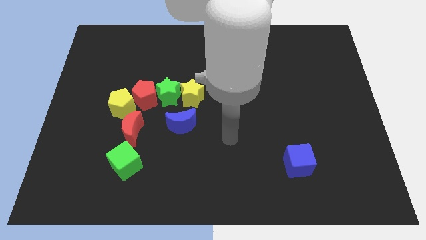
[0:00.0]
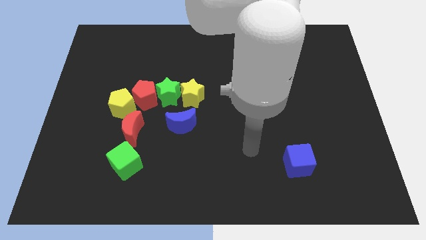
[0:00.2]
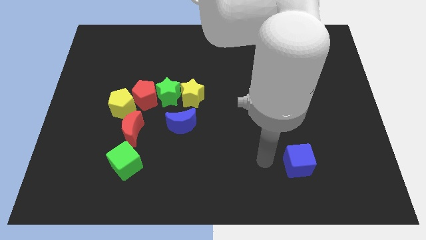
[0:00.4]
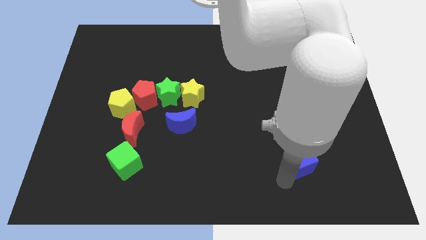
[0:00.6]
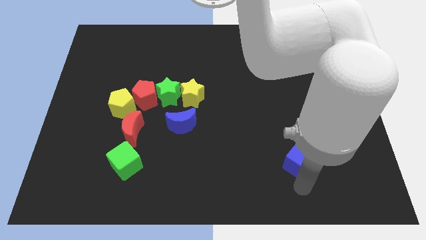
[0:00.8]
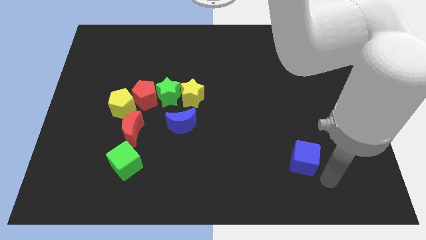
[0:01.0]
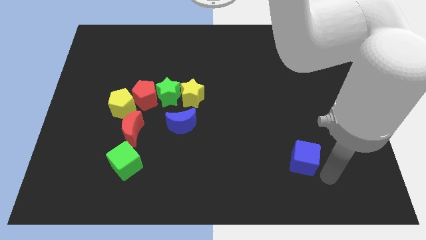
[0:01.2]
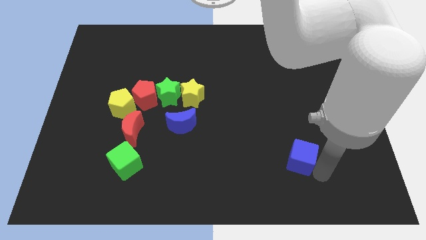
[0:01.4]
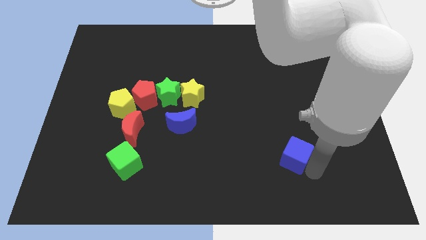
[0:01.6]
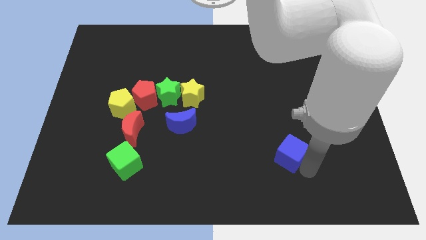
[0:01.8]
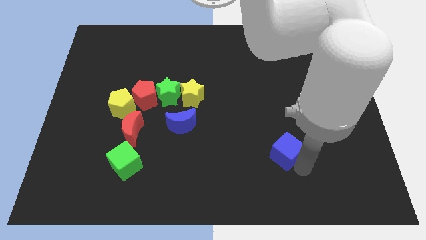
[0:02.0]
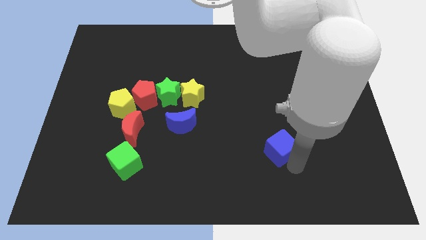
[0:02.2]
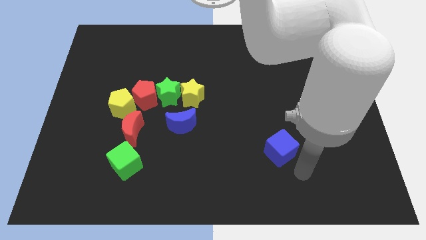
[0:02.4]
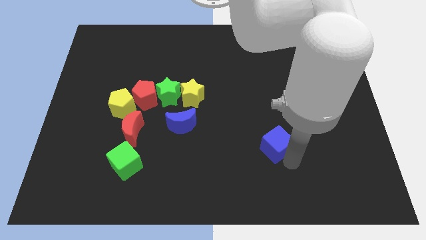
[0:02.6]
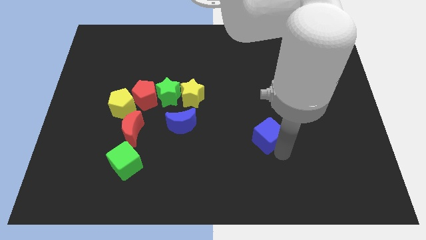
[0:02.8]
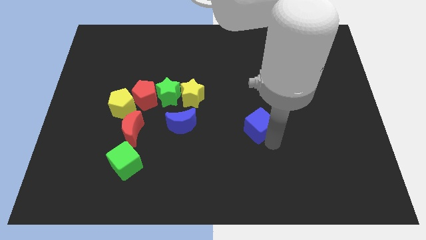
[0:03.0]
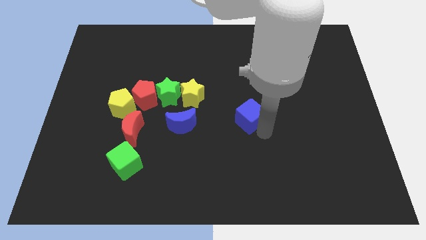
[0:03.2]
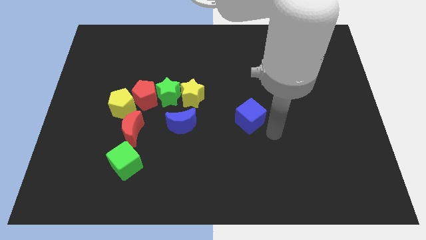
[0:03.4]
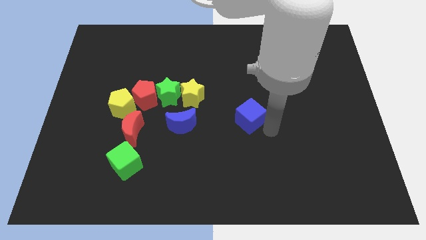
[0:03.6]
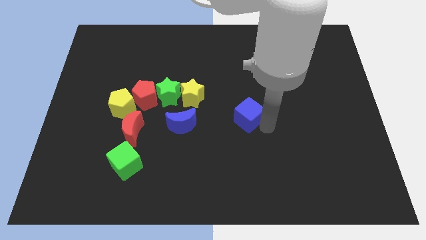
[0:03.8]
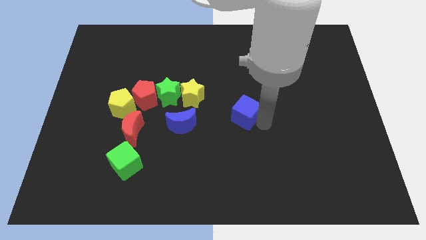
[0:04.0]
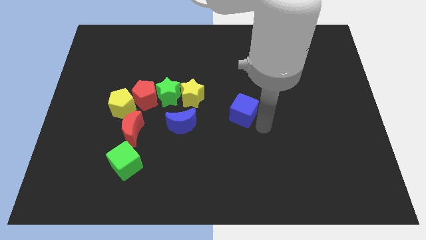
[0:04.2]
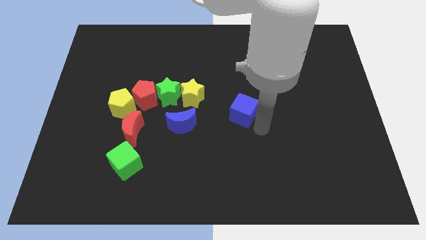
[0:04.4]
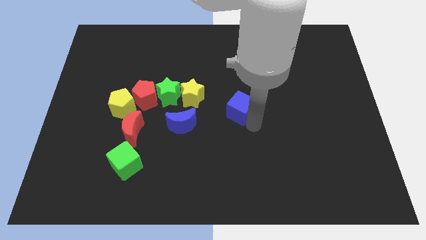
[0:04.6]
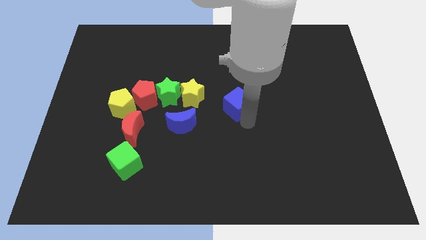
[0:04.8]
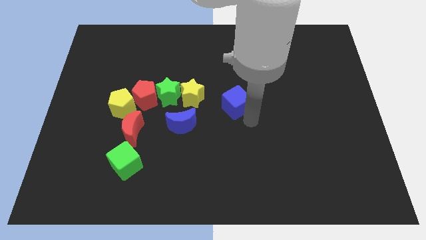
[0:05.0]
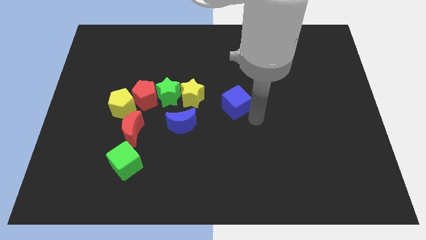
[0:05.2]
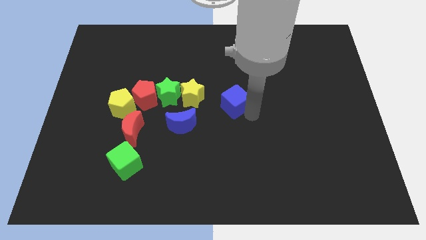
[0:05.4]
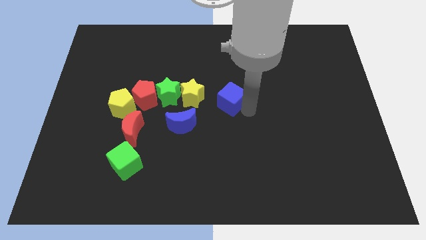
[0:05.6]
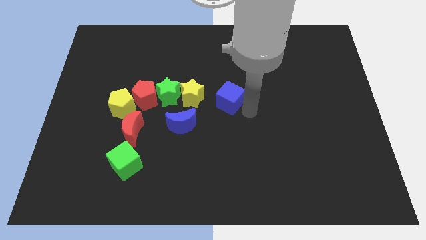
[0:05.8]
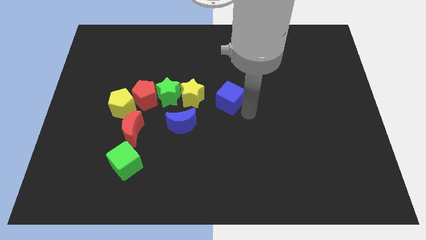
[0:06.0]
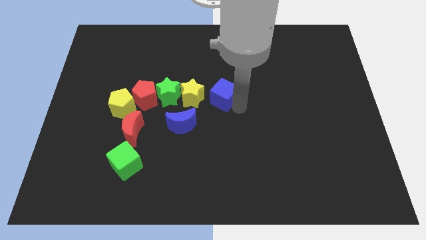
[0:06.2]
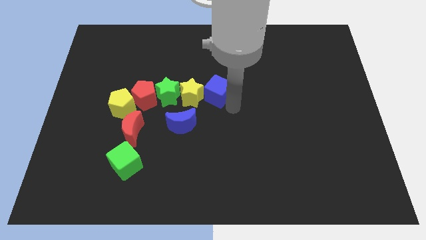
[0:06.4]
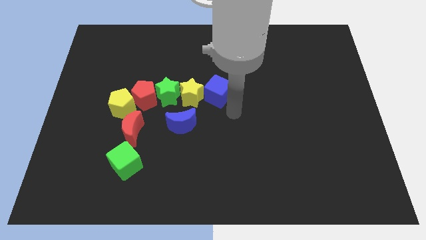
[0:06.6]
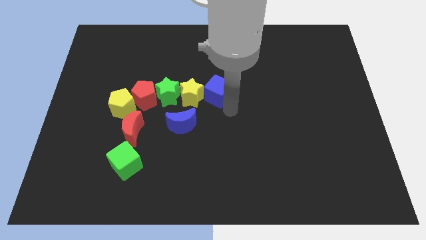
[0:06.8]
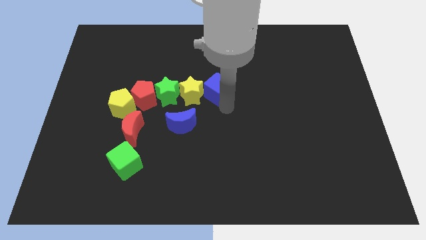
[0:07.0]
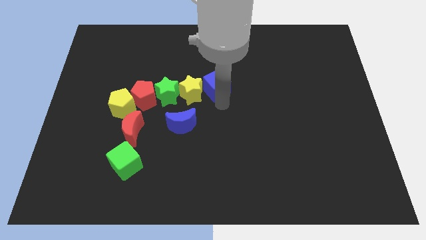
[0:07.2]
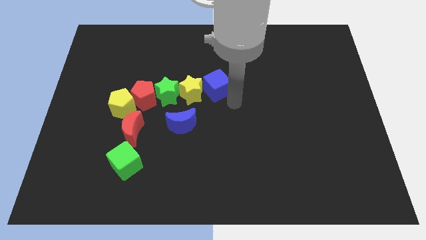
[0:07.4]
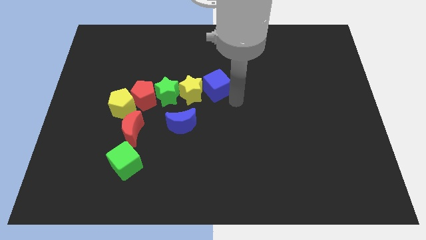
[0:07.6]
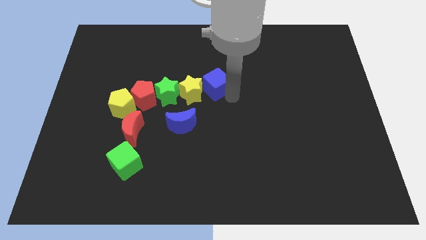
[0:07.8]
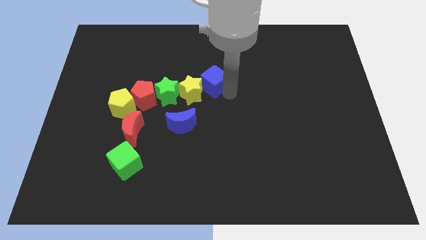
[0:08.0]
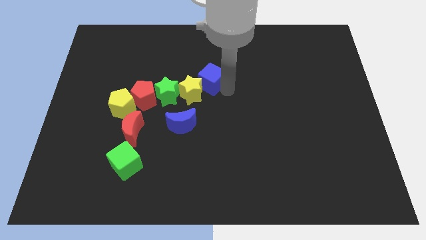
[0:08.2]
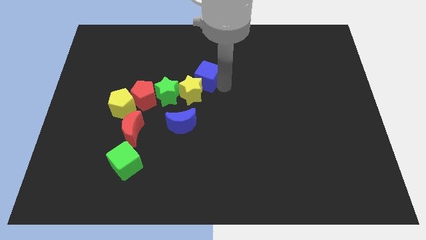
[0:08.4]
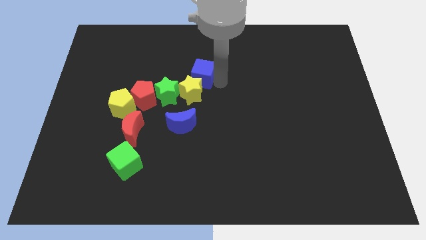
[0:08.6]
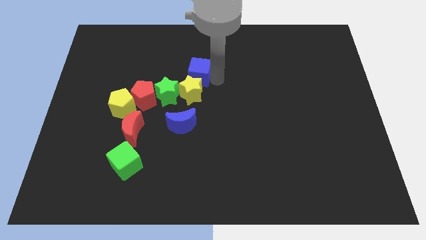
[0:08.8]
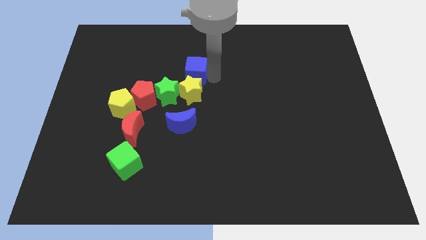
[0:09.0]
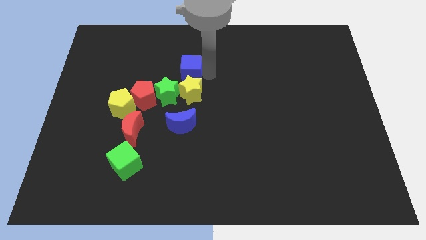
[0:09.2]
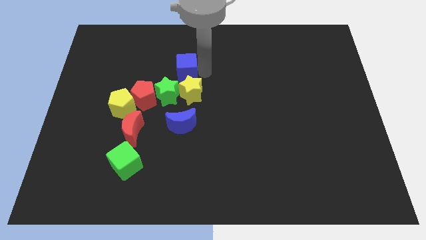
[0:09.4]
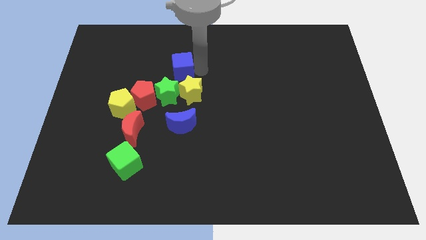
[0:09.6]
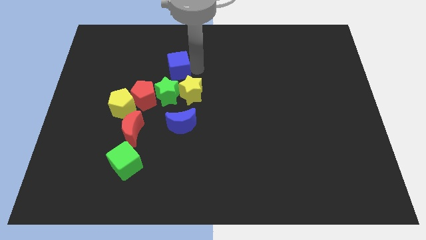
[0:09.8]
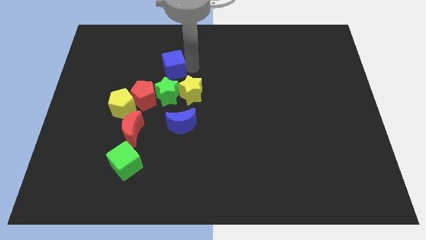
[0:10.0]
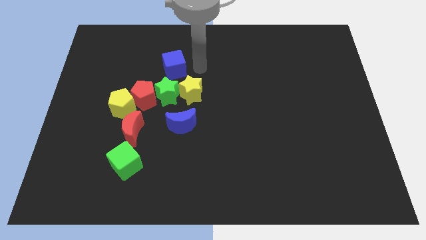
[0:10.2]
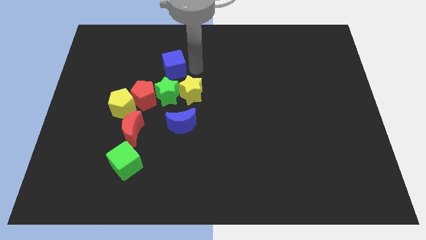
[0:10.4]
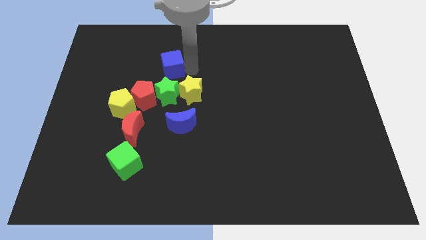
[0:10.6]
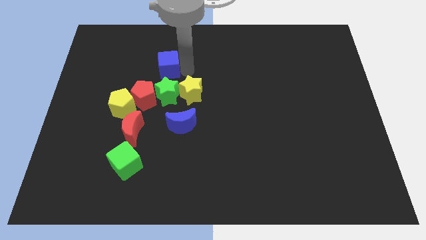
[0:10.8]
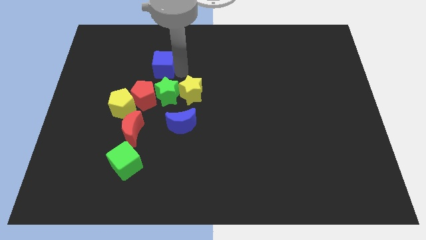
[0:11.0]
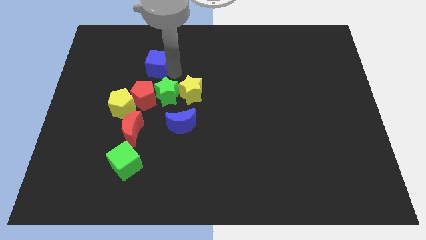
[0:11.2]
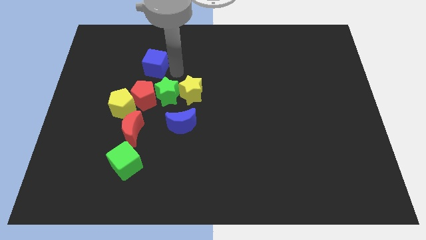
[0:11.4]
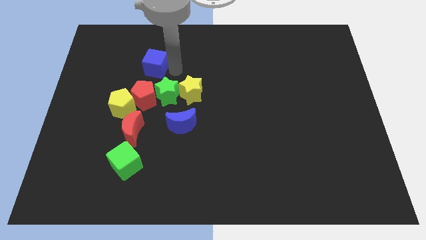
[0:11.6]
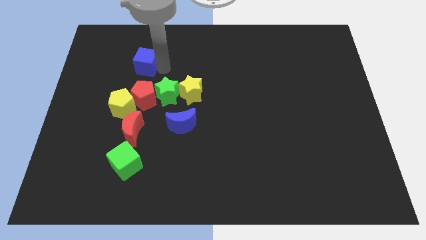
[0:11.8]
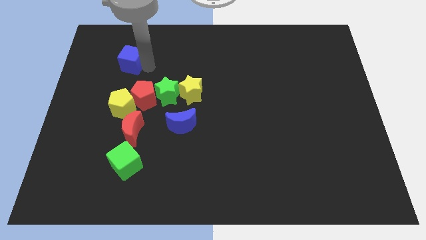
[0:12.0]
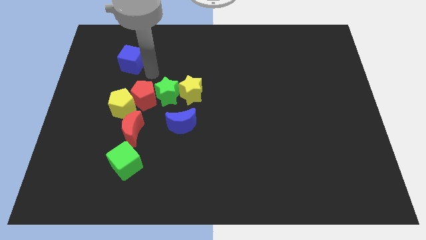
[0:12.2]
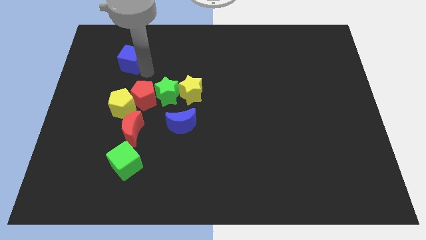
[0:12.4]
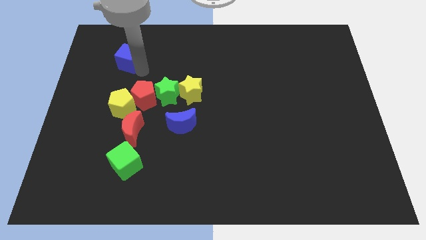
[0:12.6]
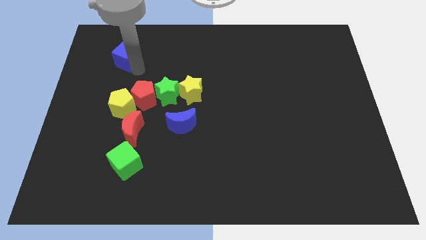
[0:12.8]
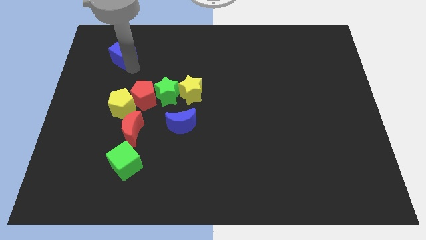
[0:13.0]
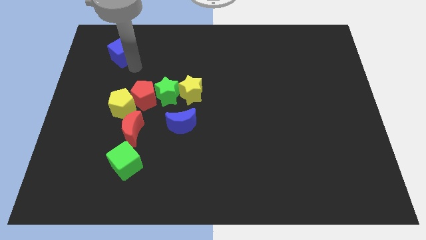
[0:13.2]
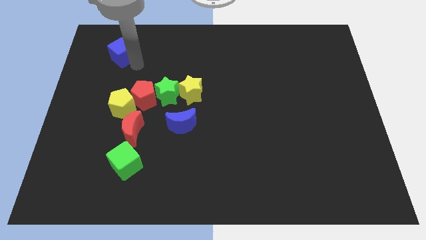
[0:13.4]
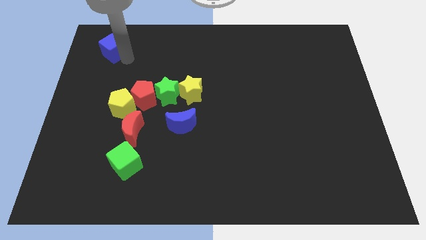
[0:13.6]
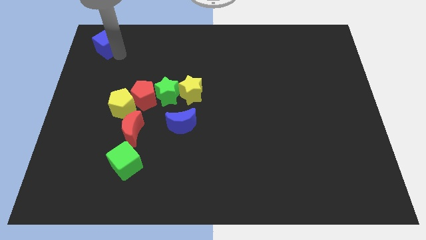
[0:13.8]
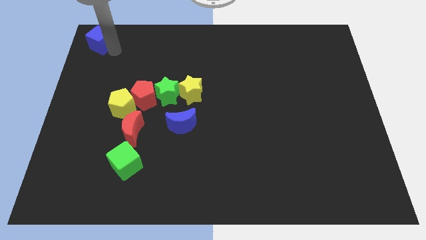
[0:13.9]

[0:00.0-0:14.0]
move the blue cube to the top left corner
